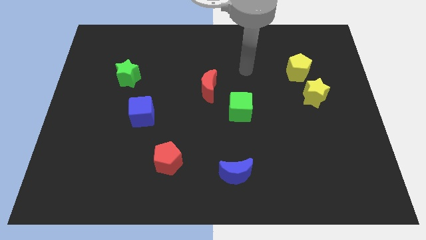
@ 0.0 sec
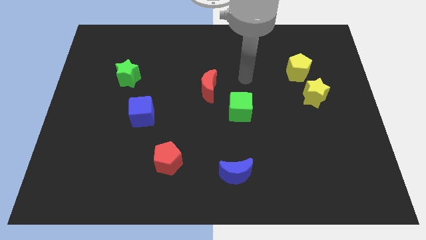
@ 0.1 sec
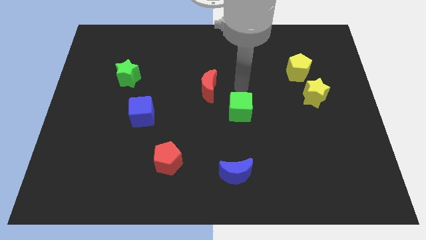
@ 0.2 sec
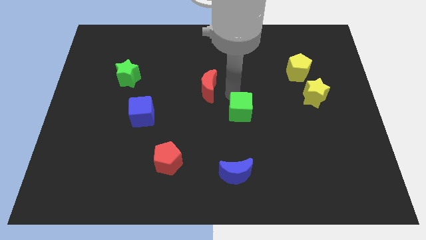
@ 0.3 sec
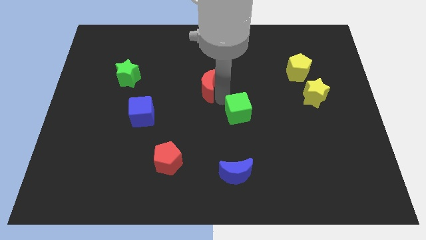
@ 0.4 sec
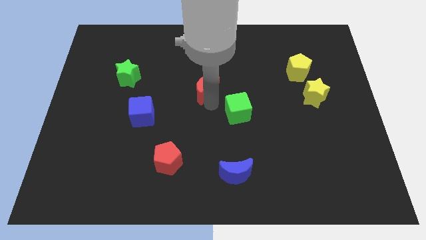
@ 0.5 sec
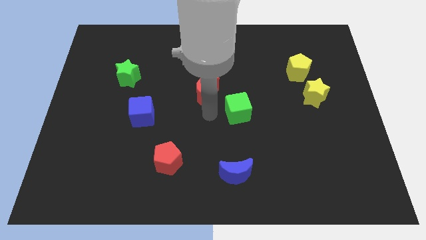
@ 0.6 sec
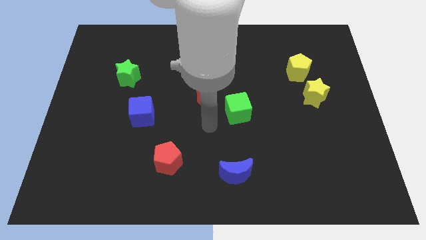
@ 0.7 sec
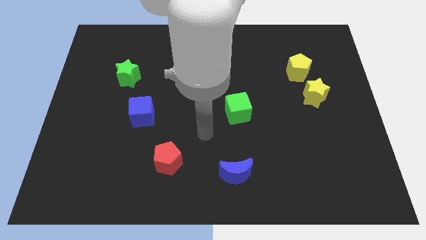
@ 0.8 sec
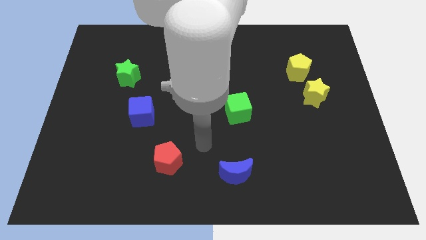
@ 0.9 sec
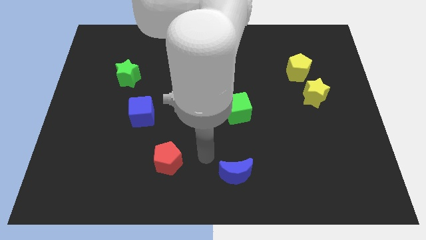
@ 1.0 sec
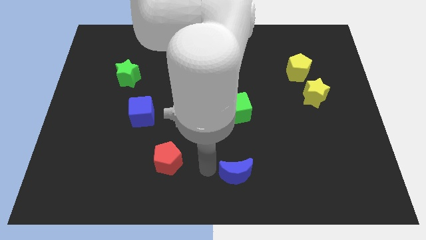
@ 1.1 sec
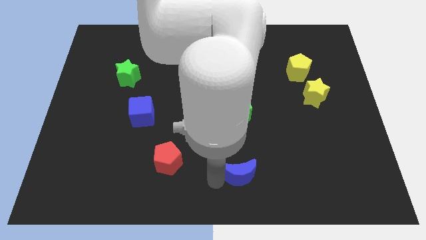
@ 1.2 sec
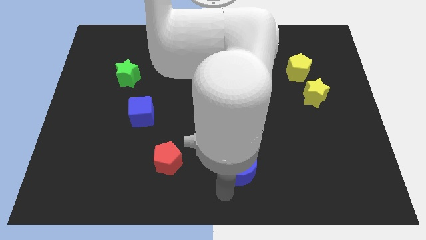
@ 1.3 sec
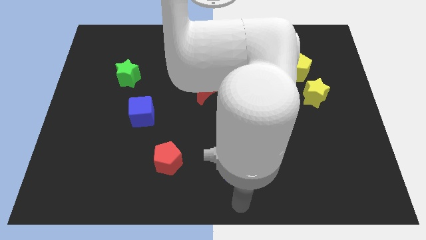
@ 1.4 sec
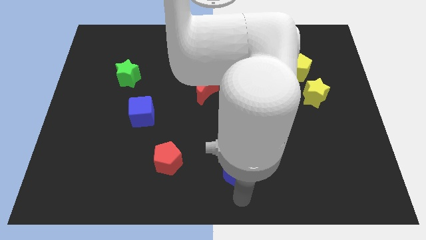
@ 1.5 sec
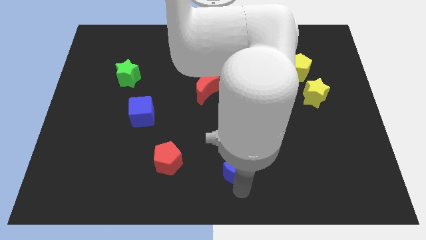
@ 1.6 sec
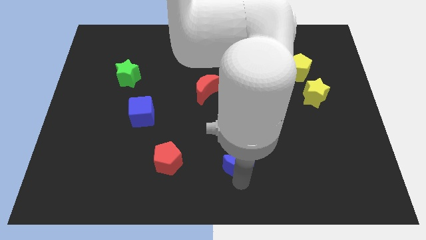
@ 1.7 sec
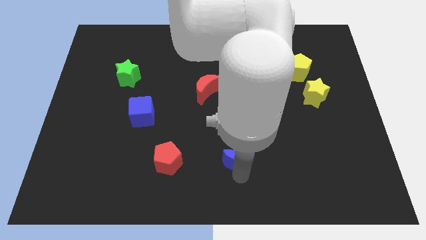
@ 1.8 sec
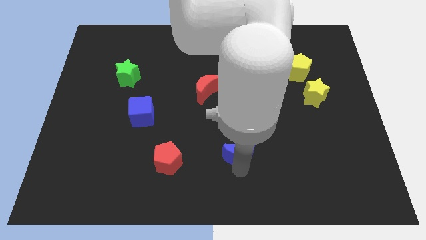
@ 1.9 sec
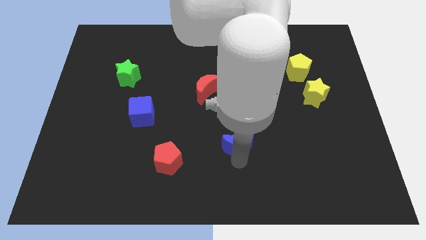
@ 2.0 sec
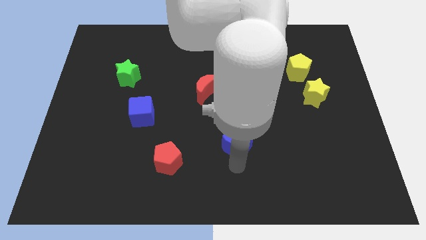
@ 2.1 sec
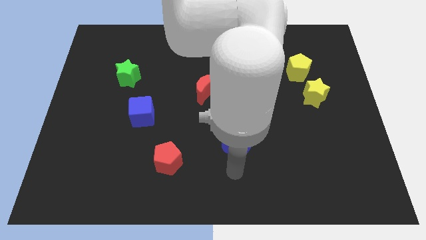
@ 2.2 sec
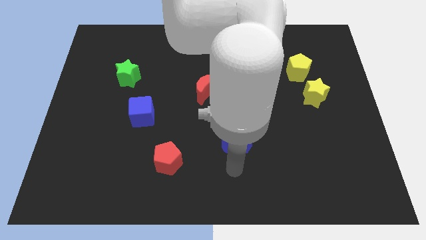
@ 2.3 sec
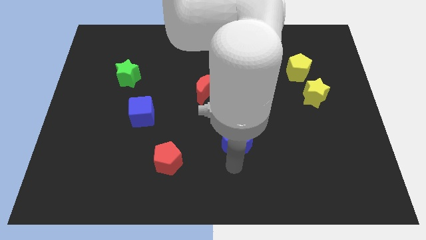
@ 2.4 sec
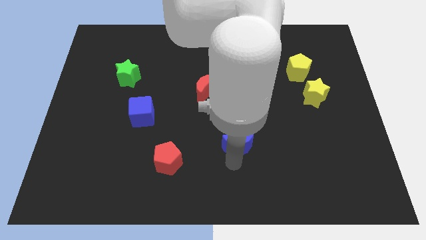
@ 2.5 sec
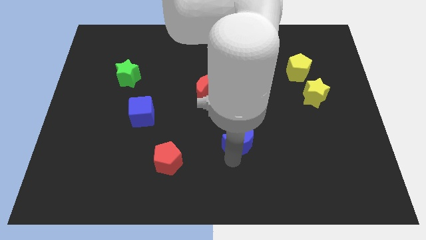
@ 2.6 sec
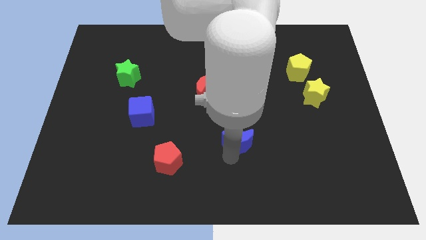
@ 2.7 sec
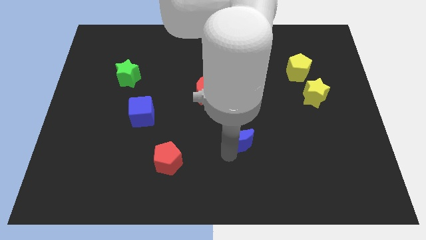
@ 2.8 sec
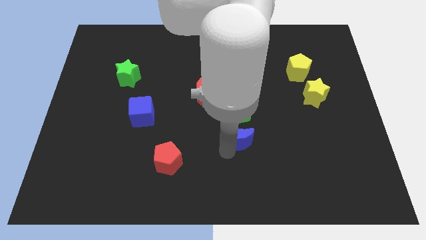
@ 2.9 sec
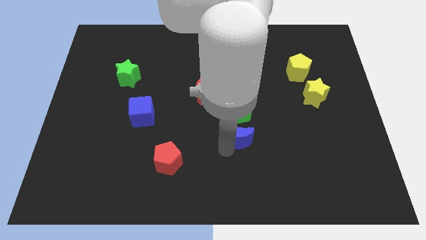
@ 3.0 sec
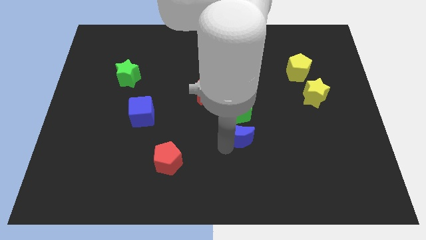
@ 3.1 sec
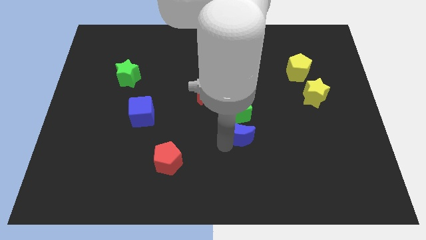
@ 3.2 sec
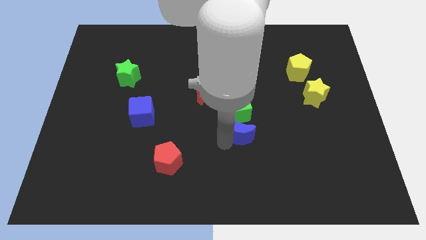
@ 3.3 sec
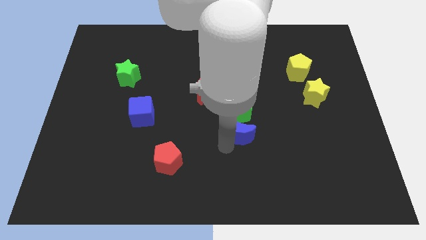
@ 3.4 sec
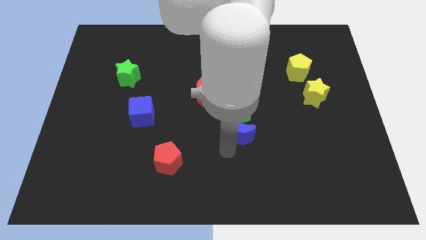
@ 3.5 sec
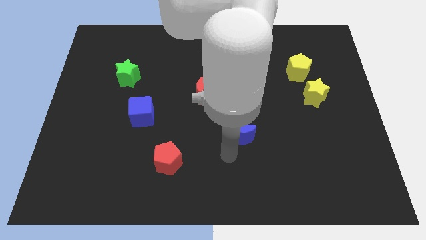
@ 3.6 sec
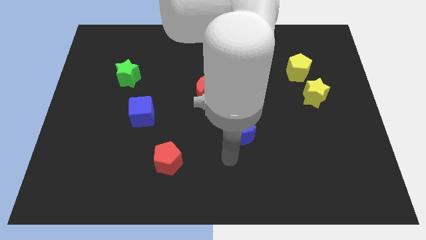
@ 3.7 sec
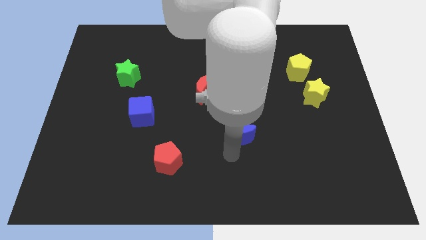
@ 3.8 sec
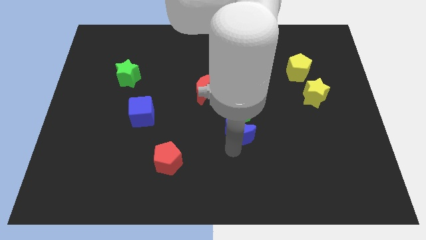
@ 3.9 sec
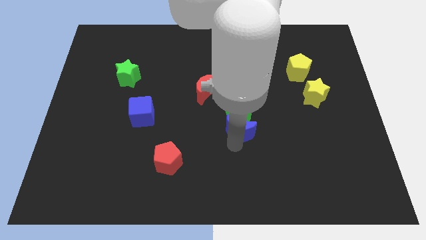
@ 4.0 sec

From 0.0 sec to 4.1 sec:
move the blue moon next to the green cube

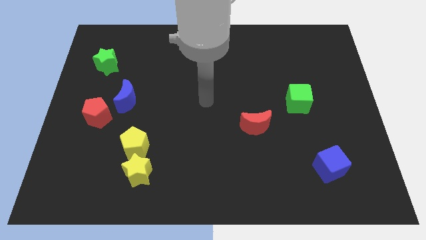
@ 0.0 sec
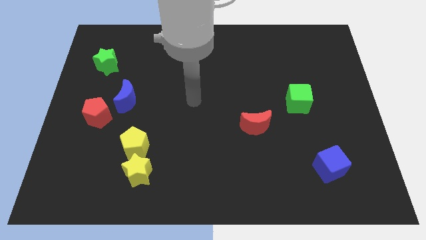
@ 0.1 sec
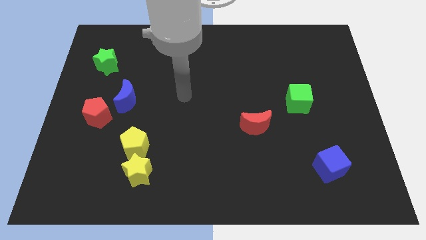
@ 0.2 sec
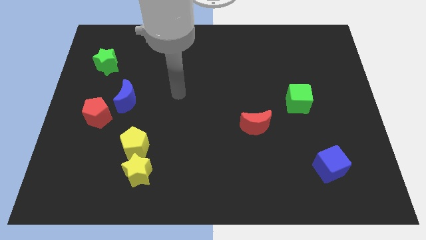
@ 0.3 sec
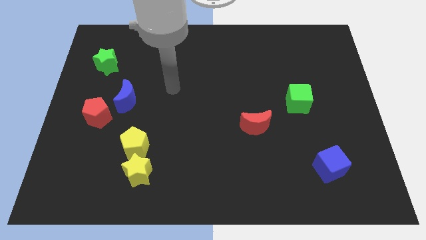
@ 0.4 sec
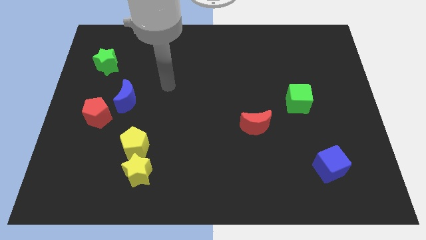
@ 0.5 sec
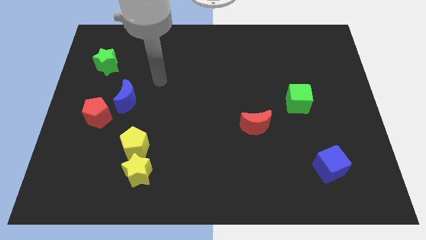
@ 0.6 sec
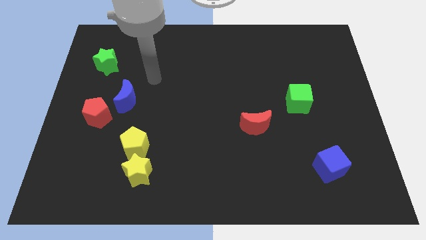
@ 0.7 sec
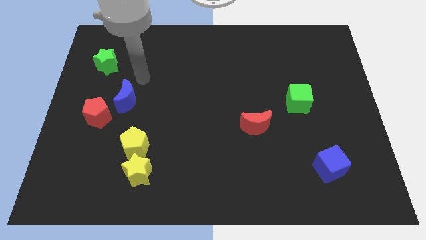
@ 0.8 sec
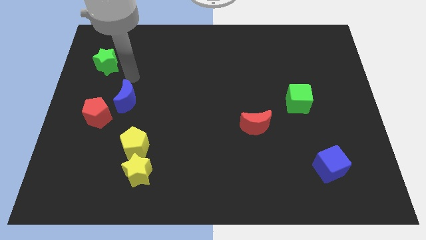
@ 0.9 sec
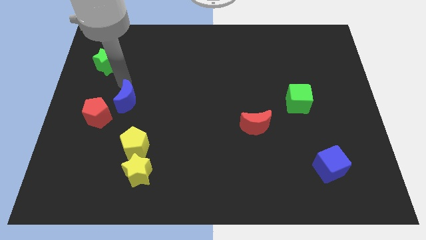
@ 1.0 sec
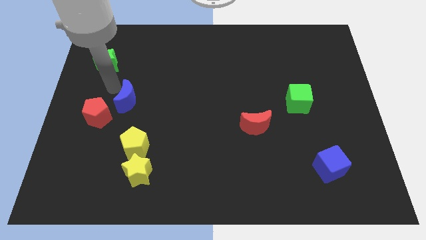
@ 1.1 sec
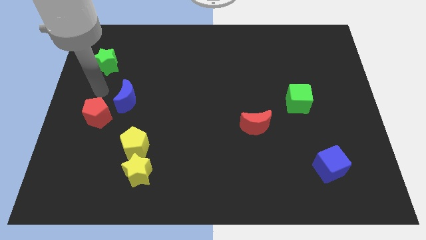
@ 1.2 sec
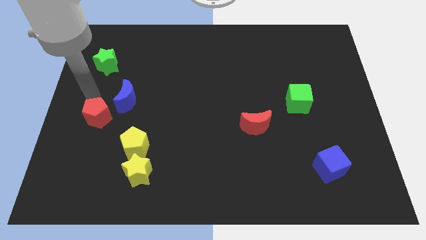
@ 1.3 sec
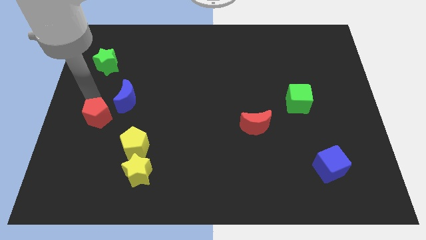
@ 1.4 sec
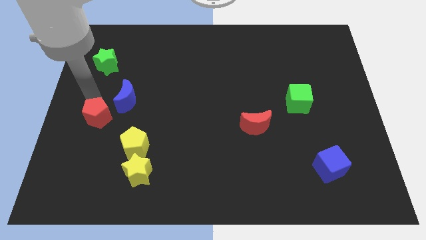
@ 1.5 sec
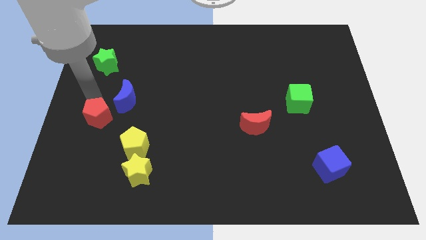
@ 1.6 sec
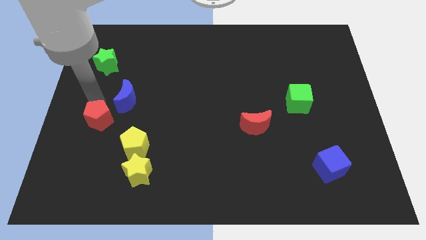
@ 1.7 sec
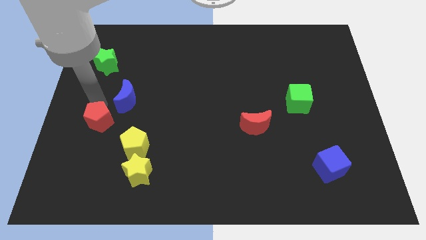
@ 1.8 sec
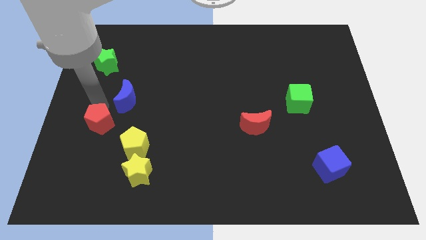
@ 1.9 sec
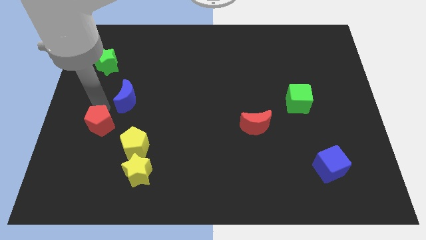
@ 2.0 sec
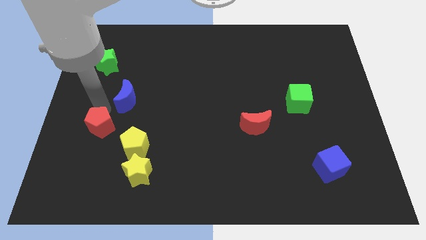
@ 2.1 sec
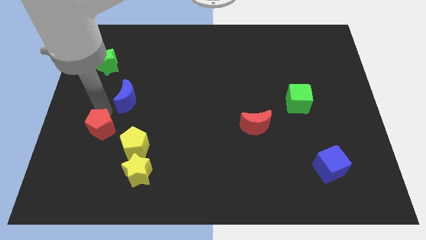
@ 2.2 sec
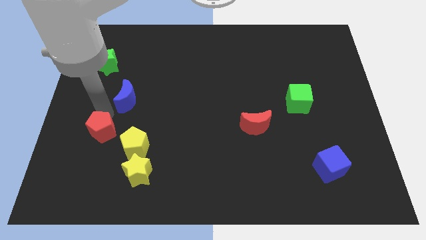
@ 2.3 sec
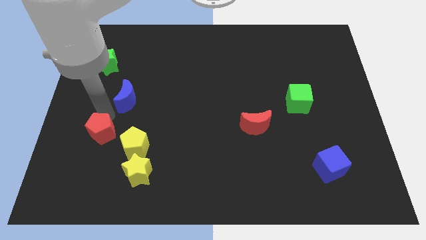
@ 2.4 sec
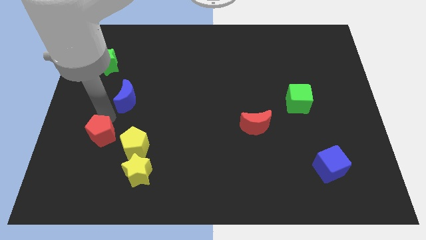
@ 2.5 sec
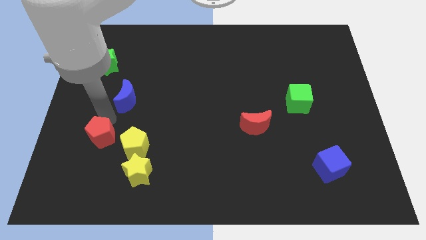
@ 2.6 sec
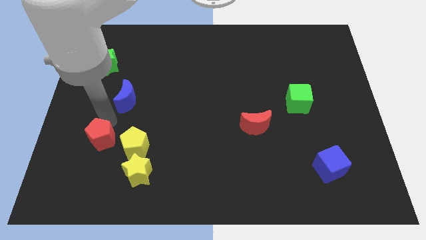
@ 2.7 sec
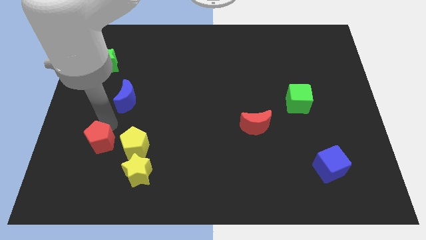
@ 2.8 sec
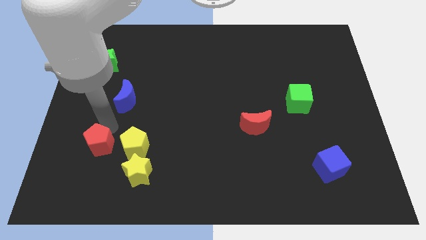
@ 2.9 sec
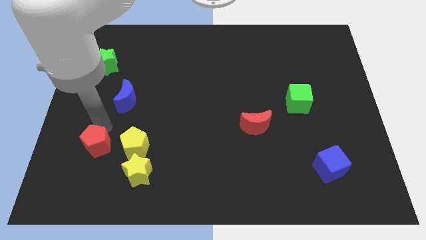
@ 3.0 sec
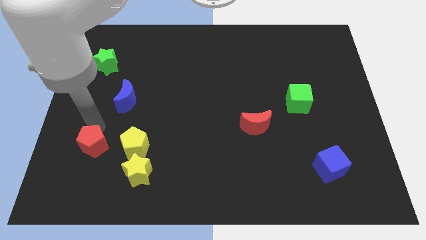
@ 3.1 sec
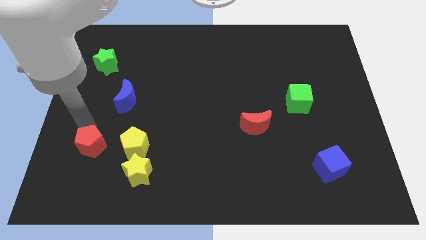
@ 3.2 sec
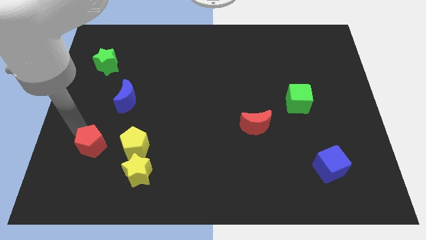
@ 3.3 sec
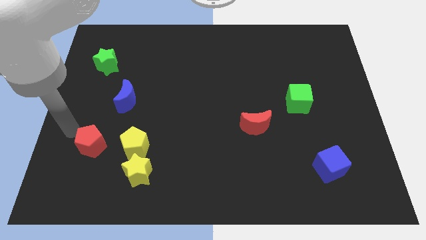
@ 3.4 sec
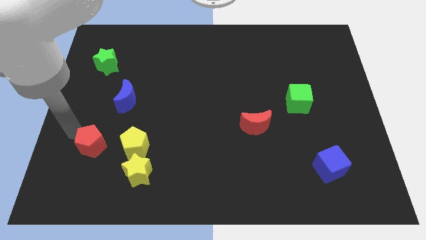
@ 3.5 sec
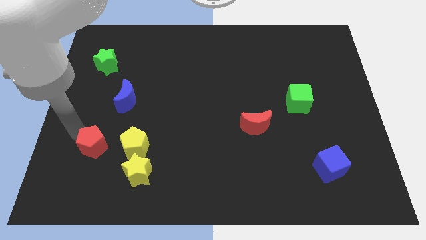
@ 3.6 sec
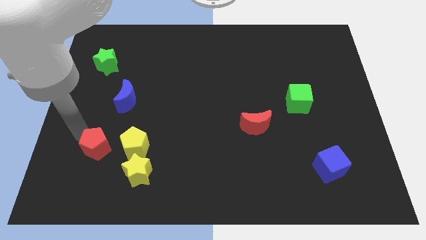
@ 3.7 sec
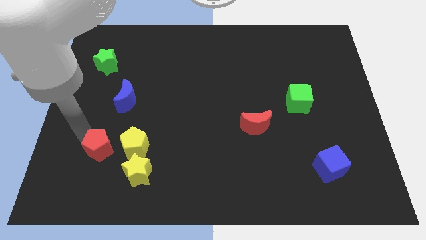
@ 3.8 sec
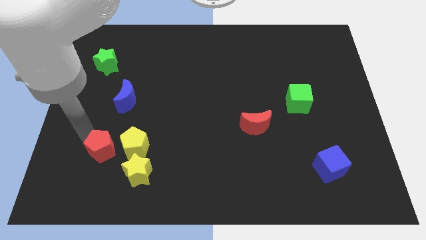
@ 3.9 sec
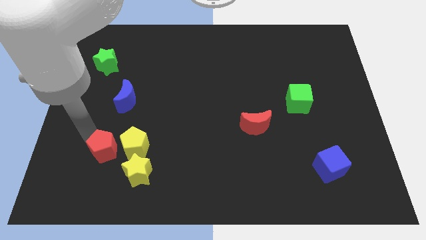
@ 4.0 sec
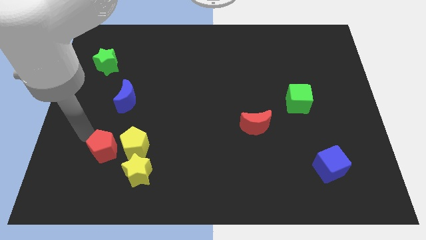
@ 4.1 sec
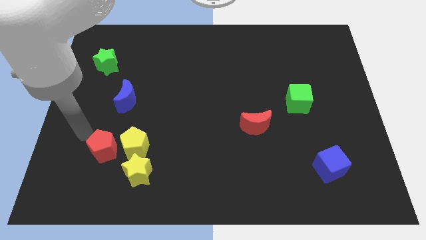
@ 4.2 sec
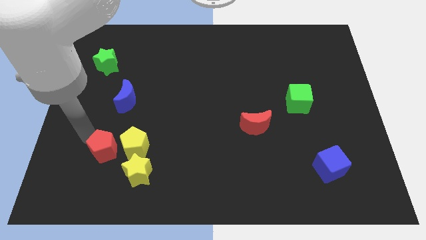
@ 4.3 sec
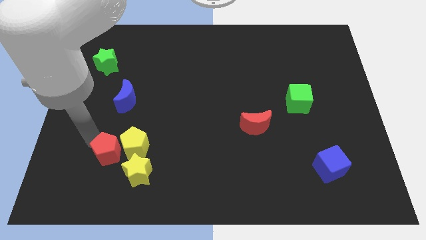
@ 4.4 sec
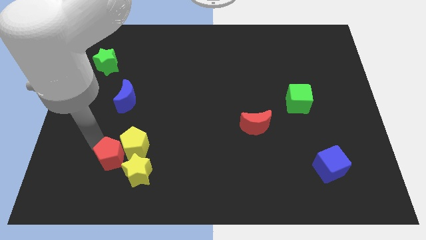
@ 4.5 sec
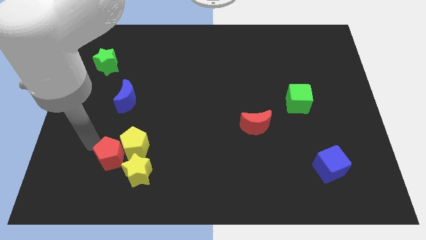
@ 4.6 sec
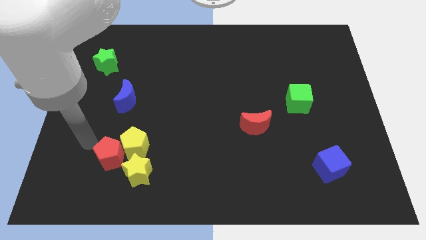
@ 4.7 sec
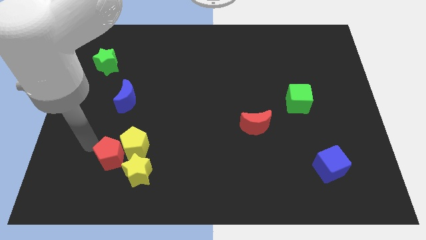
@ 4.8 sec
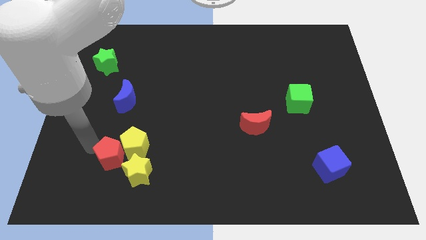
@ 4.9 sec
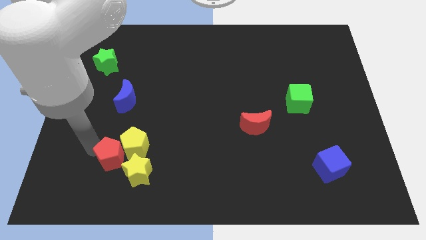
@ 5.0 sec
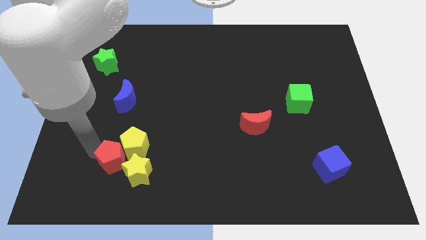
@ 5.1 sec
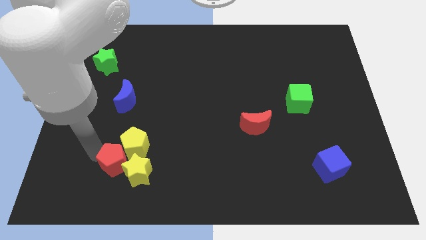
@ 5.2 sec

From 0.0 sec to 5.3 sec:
push the red pentagon next to the yellow star
